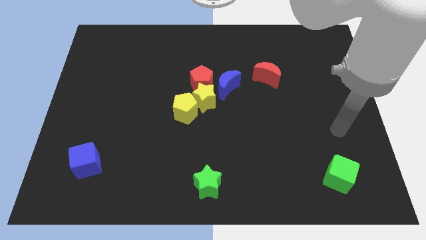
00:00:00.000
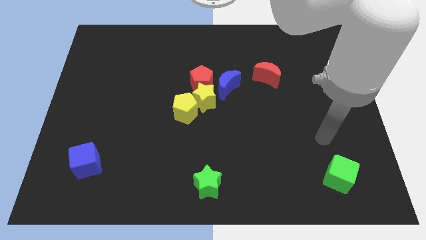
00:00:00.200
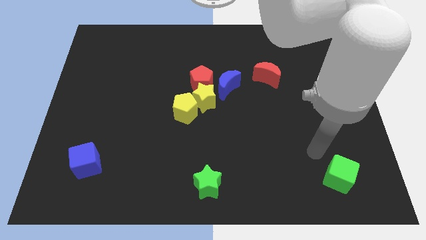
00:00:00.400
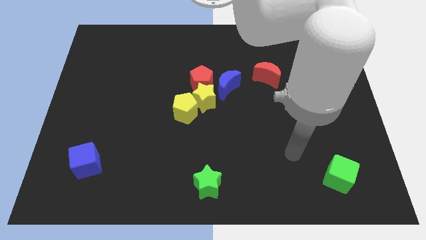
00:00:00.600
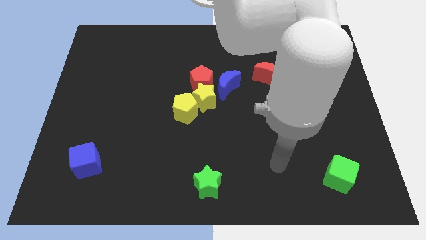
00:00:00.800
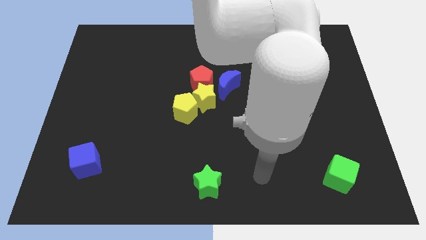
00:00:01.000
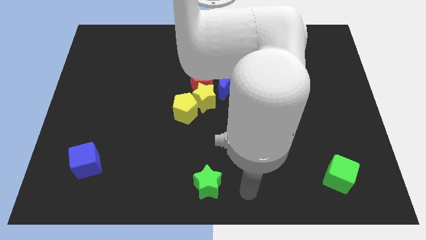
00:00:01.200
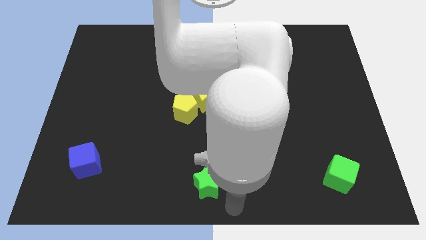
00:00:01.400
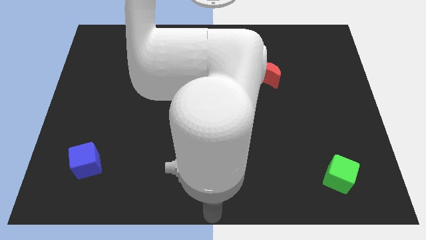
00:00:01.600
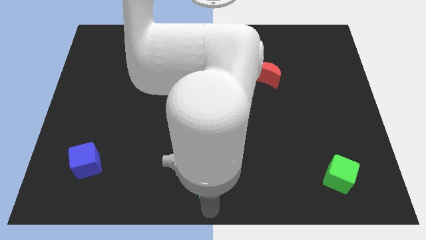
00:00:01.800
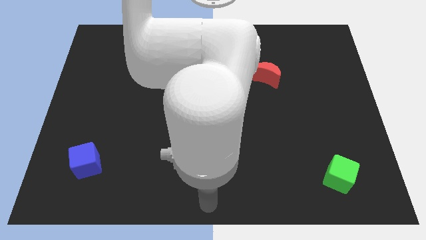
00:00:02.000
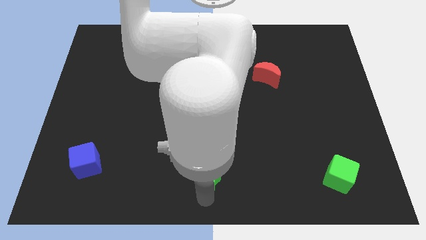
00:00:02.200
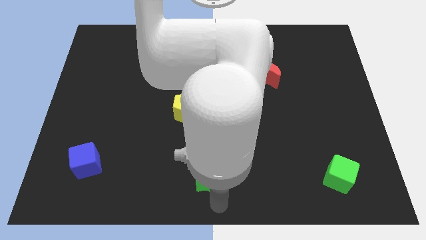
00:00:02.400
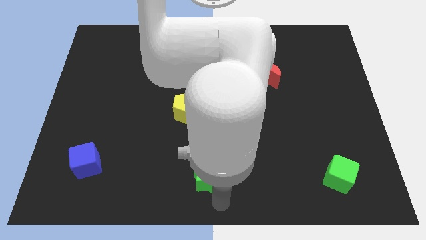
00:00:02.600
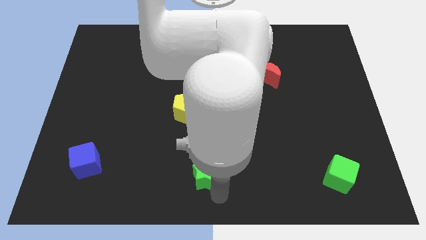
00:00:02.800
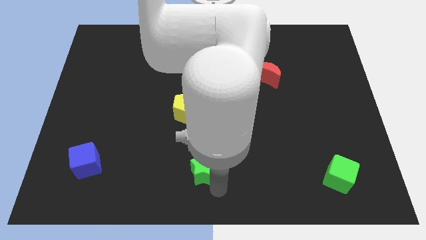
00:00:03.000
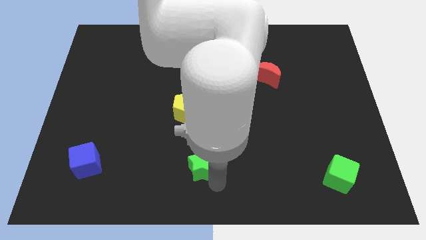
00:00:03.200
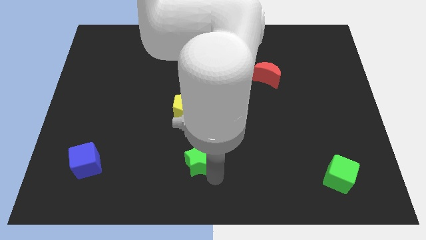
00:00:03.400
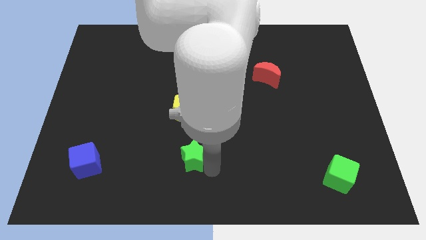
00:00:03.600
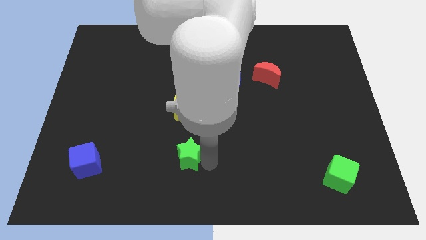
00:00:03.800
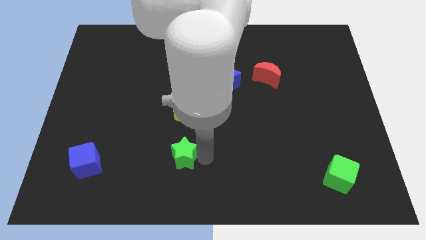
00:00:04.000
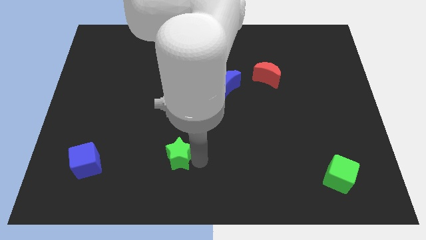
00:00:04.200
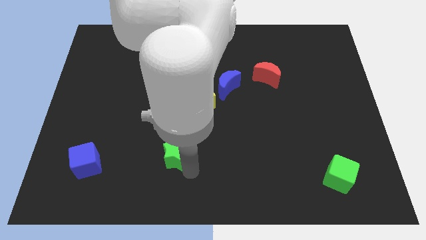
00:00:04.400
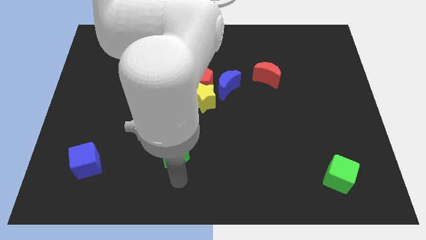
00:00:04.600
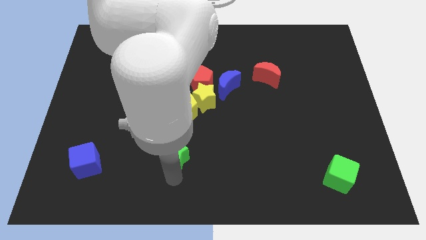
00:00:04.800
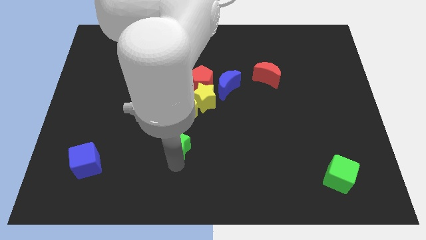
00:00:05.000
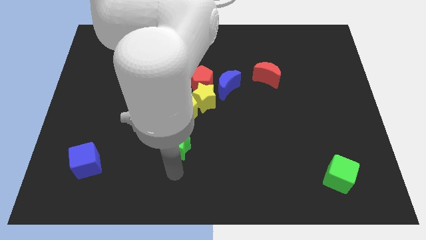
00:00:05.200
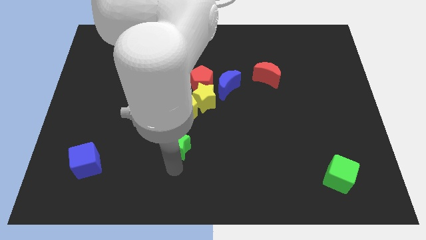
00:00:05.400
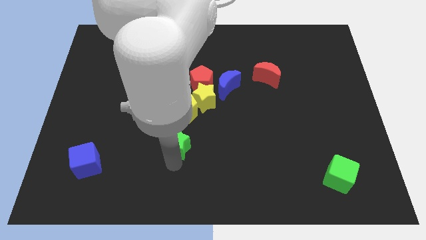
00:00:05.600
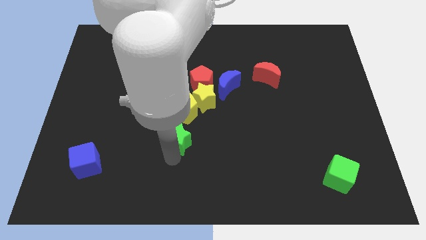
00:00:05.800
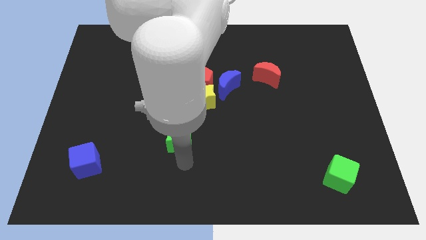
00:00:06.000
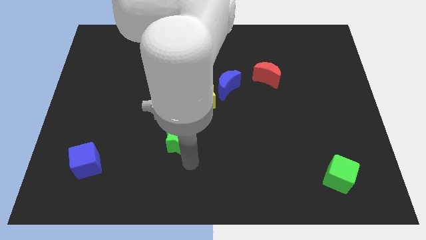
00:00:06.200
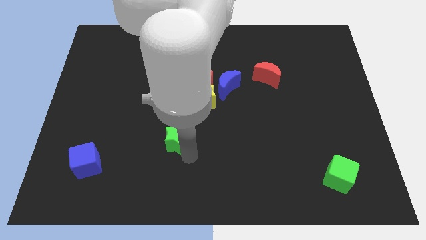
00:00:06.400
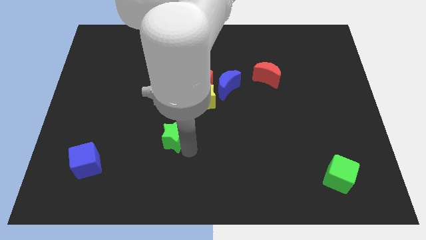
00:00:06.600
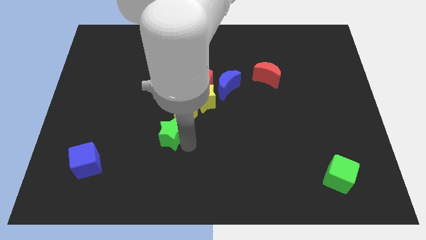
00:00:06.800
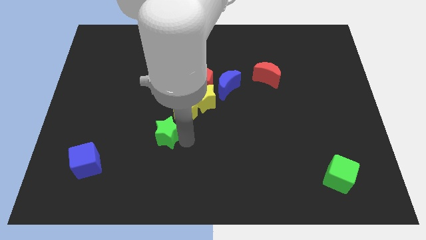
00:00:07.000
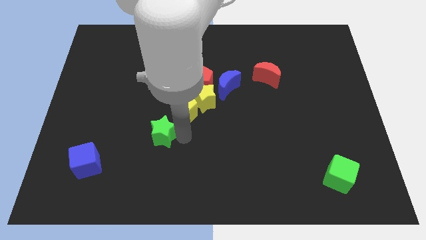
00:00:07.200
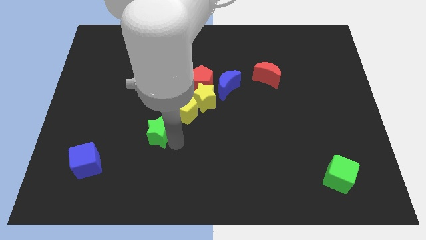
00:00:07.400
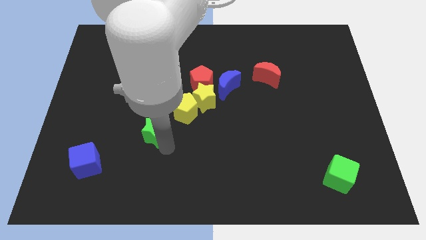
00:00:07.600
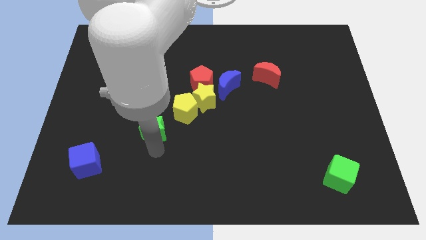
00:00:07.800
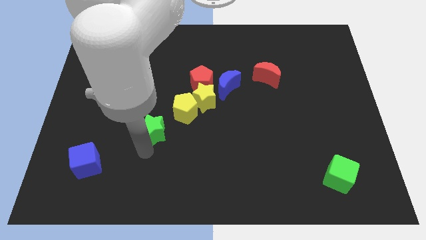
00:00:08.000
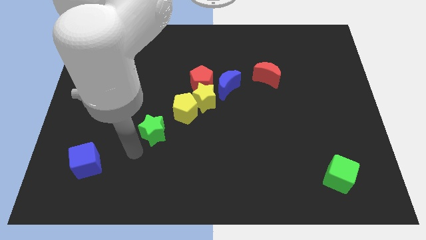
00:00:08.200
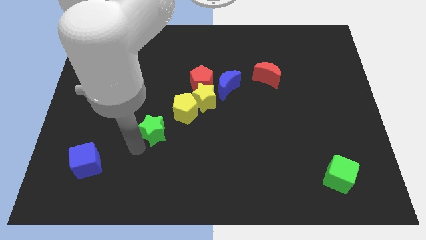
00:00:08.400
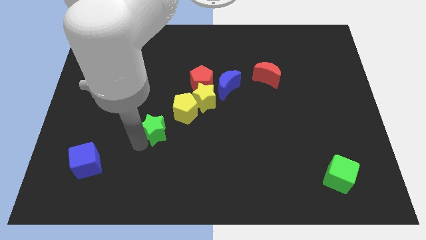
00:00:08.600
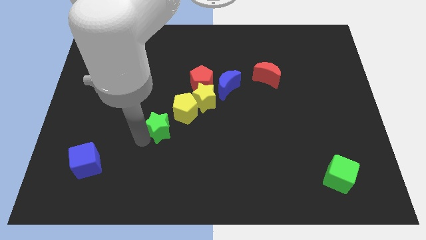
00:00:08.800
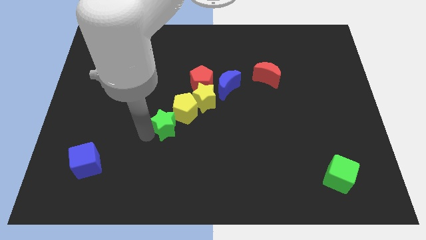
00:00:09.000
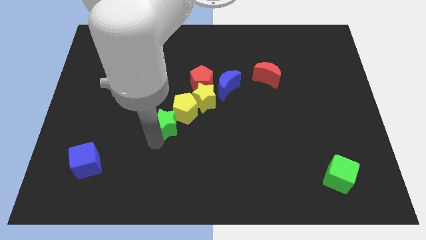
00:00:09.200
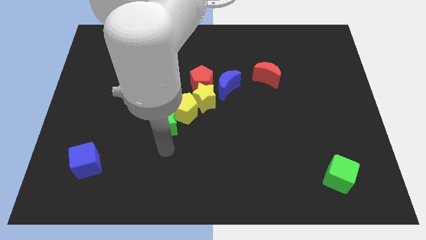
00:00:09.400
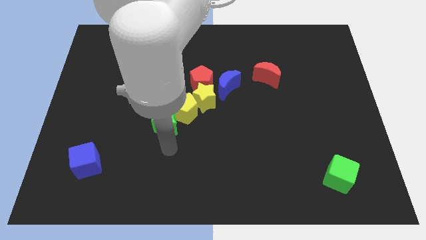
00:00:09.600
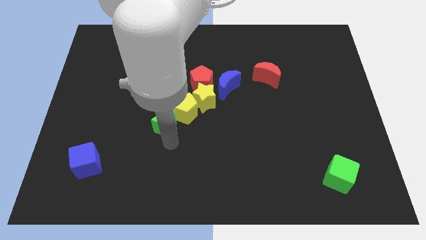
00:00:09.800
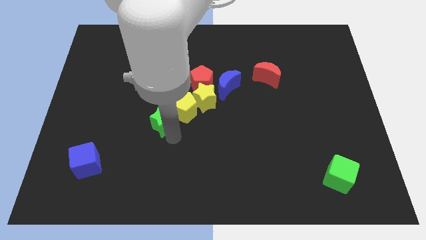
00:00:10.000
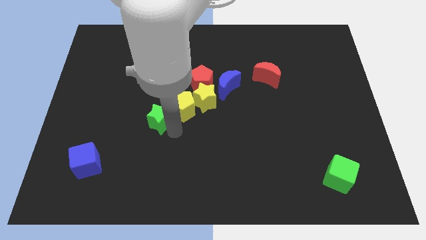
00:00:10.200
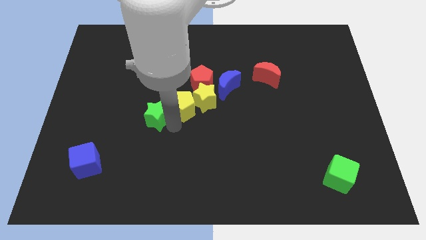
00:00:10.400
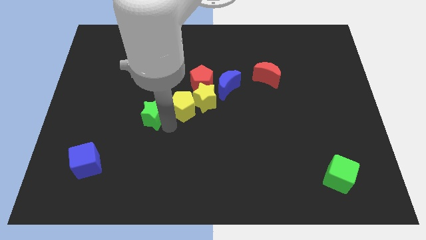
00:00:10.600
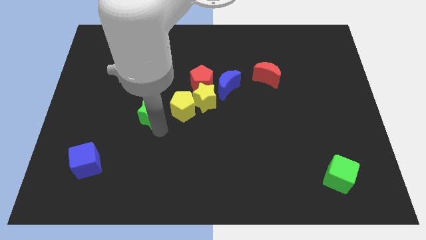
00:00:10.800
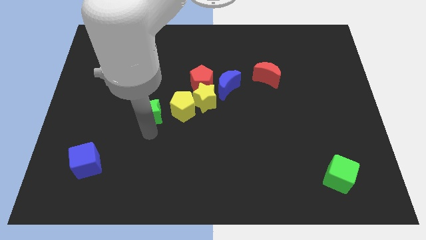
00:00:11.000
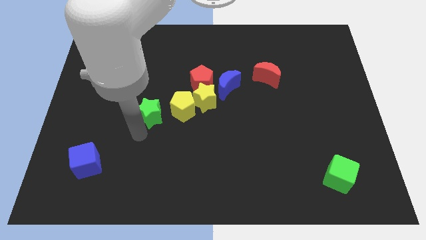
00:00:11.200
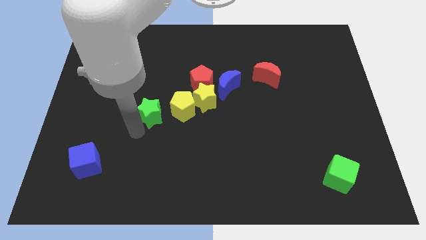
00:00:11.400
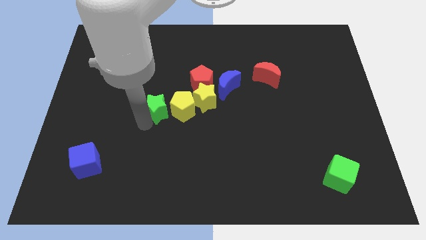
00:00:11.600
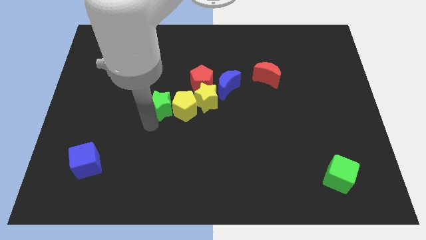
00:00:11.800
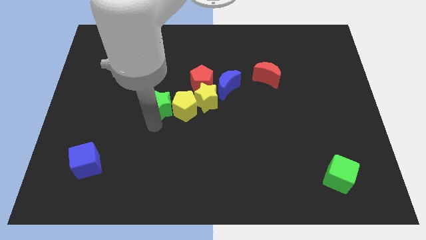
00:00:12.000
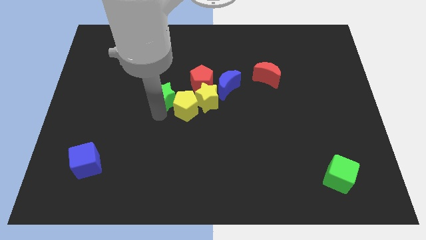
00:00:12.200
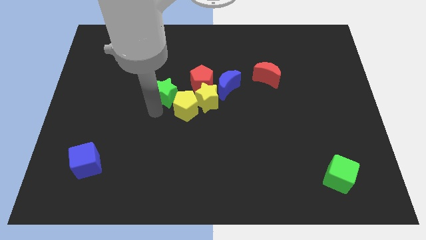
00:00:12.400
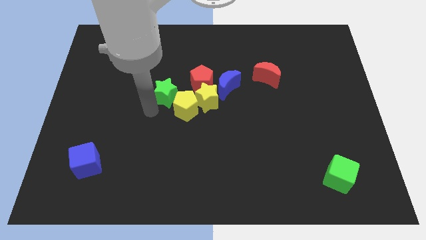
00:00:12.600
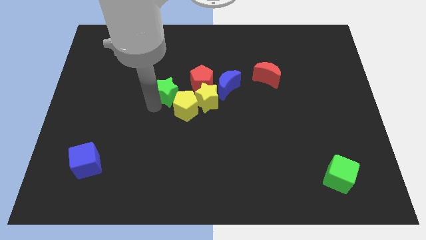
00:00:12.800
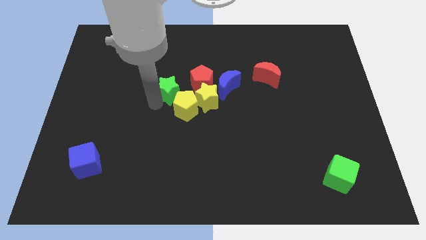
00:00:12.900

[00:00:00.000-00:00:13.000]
move the green star upwards

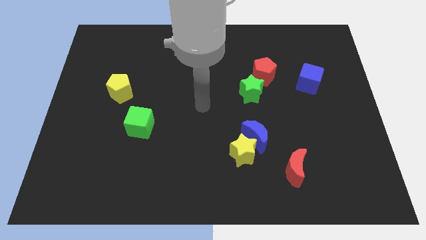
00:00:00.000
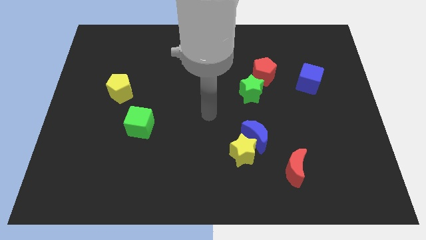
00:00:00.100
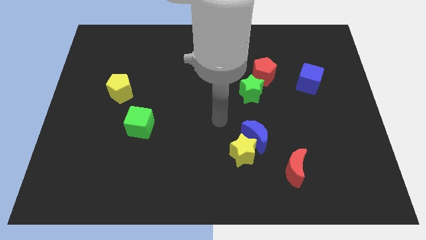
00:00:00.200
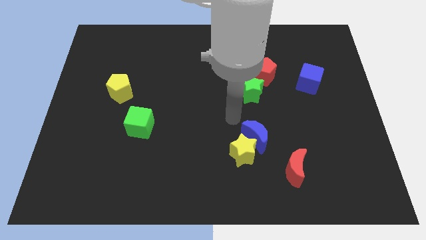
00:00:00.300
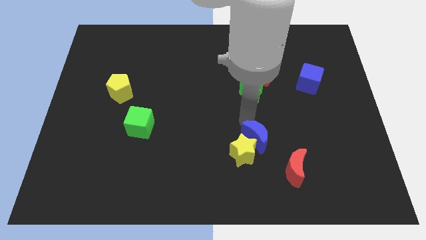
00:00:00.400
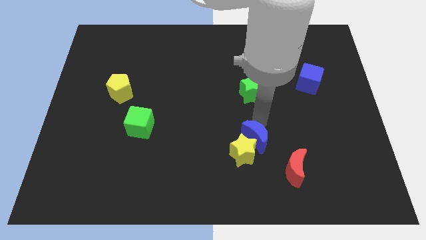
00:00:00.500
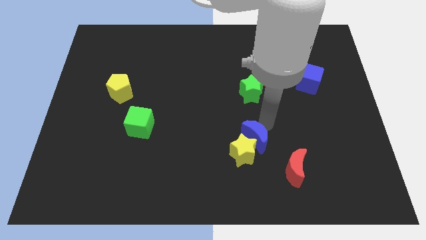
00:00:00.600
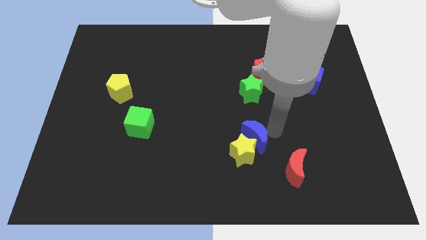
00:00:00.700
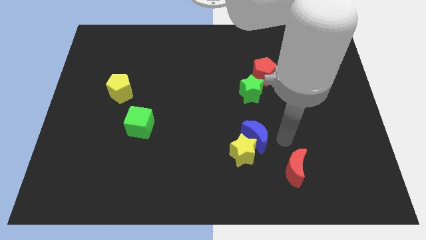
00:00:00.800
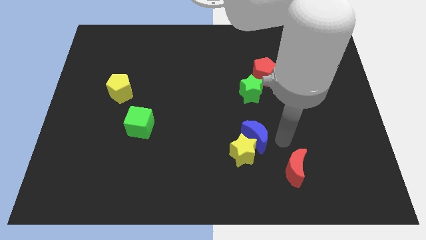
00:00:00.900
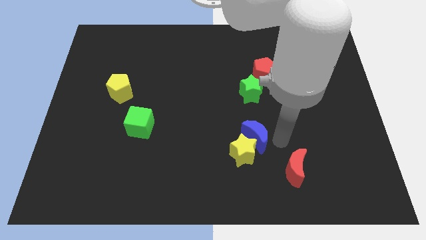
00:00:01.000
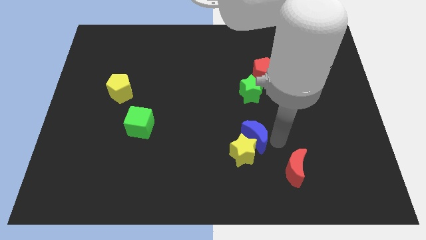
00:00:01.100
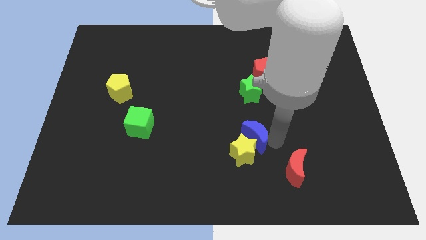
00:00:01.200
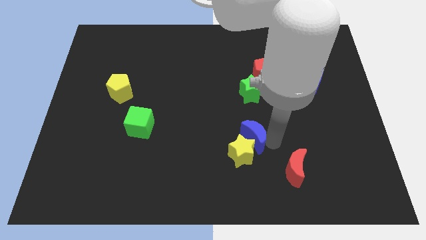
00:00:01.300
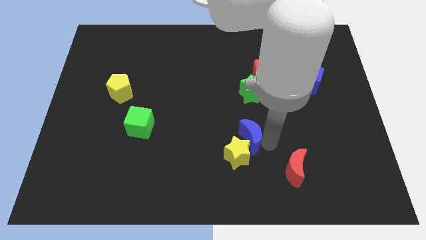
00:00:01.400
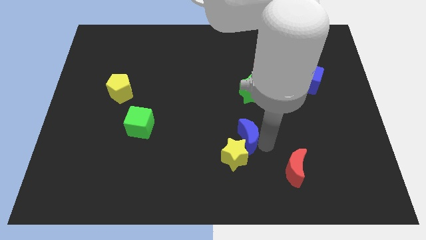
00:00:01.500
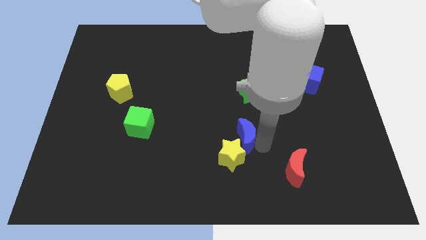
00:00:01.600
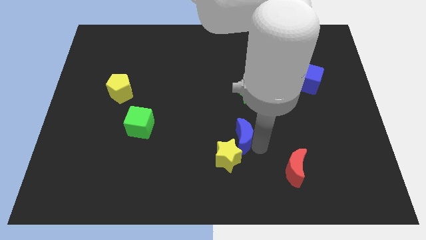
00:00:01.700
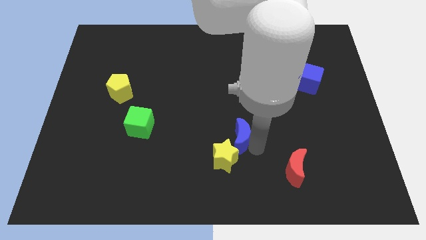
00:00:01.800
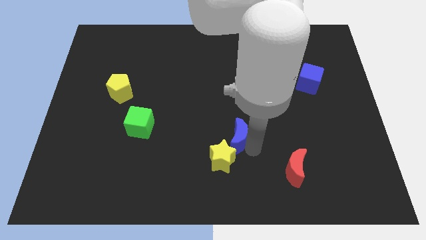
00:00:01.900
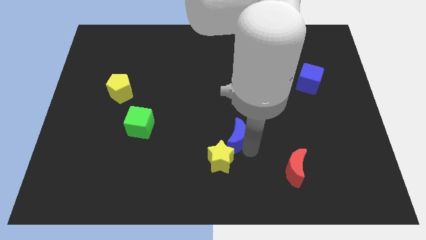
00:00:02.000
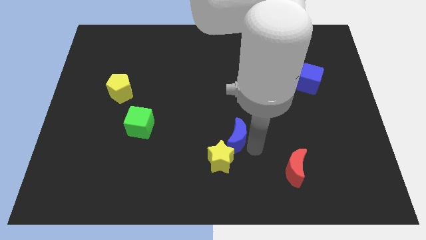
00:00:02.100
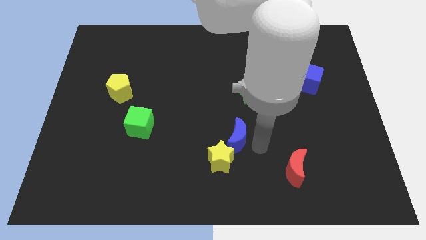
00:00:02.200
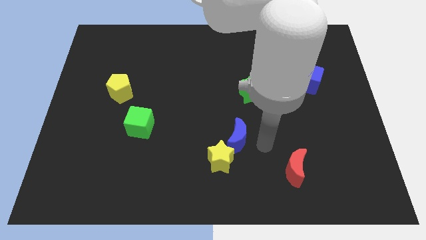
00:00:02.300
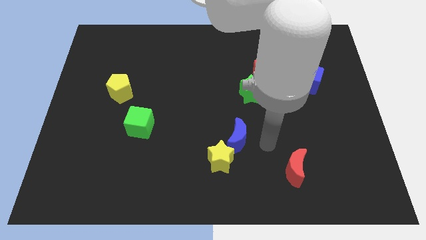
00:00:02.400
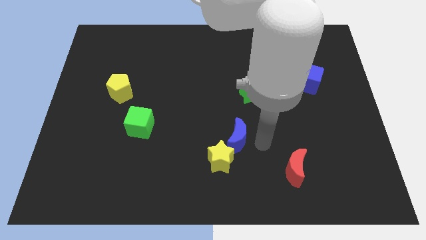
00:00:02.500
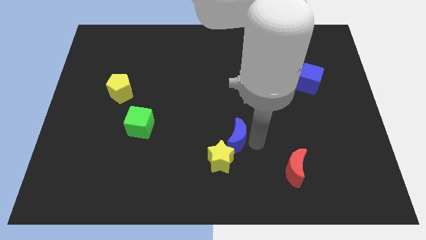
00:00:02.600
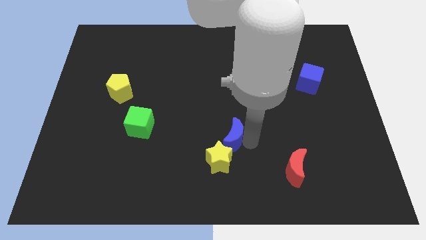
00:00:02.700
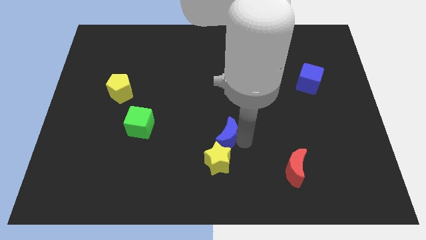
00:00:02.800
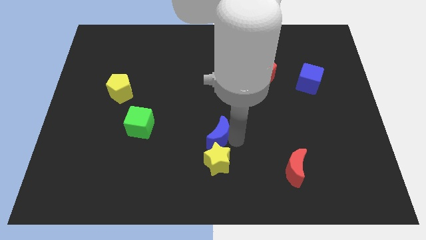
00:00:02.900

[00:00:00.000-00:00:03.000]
slightly push the blue moon to the left
